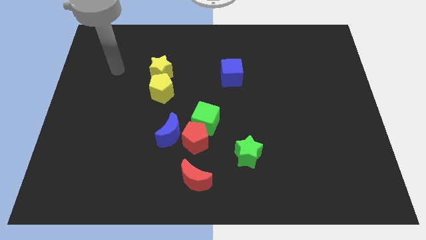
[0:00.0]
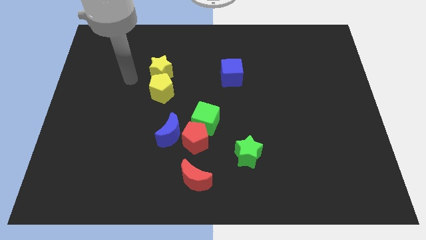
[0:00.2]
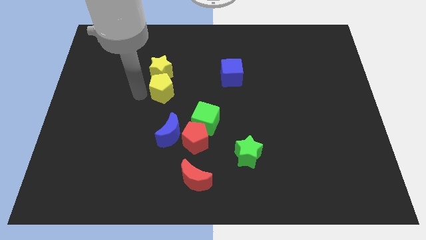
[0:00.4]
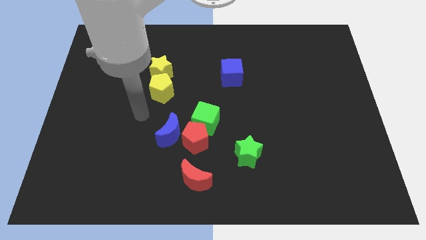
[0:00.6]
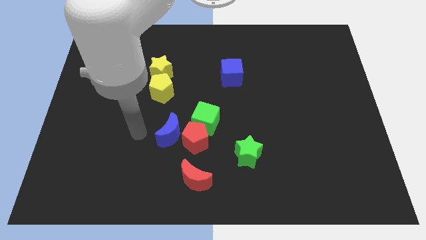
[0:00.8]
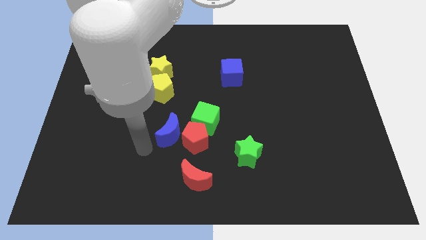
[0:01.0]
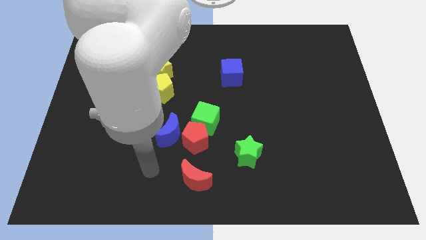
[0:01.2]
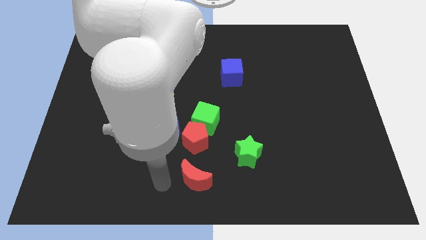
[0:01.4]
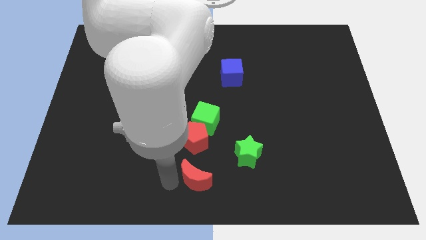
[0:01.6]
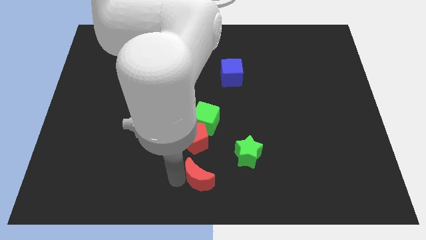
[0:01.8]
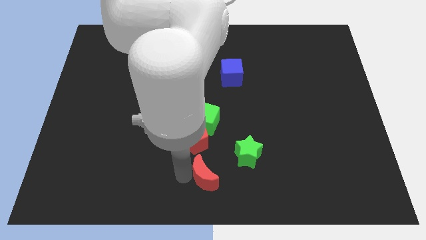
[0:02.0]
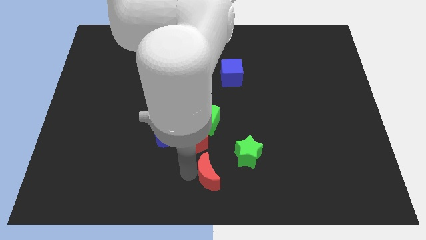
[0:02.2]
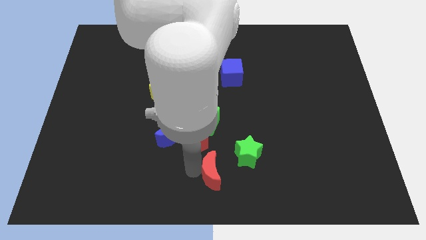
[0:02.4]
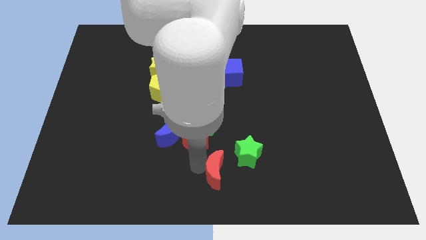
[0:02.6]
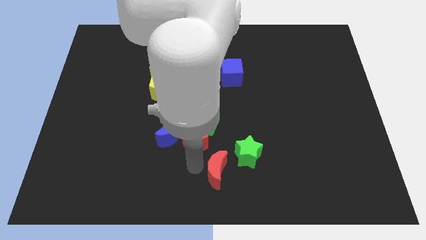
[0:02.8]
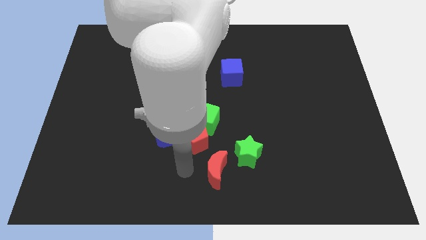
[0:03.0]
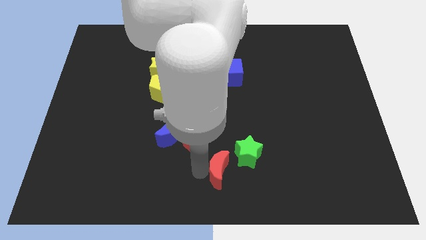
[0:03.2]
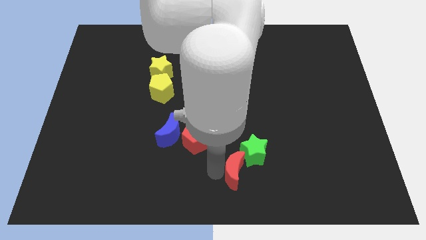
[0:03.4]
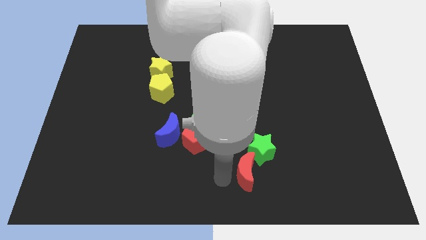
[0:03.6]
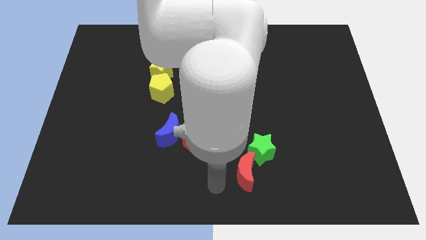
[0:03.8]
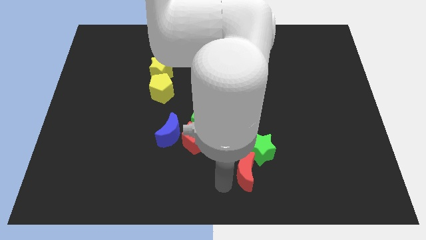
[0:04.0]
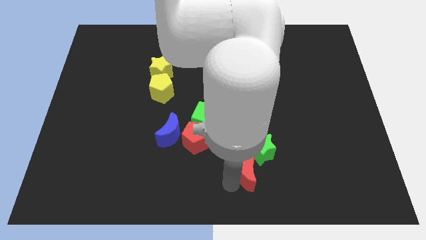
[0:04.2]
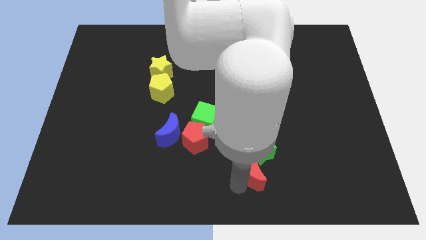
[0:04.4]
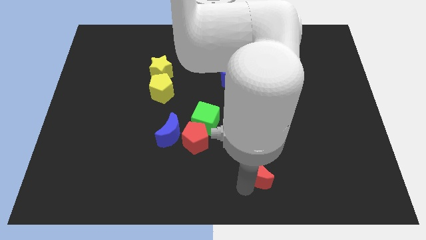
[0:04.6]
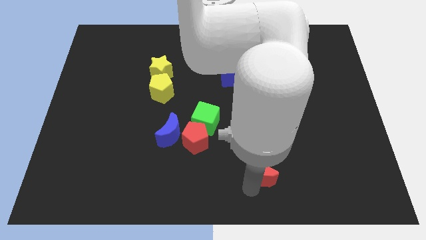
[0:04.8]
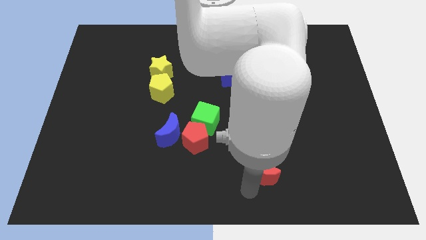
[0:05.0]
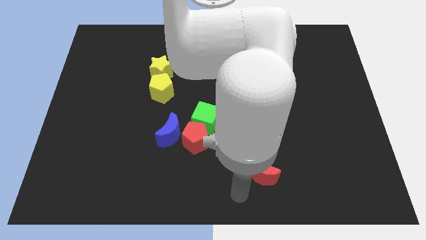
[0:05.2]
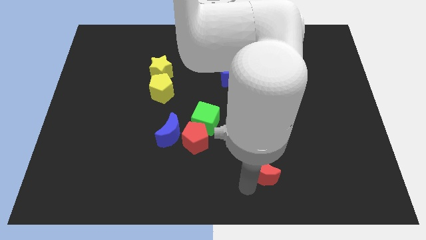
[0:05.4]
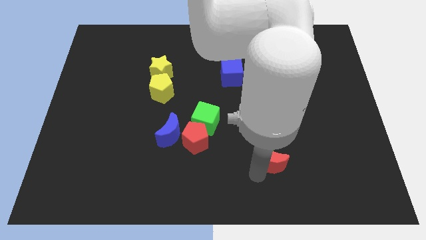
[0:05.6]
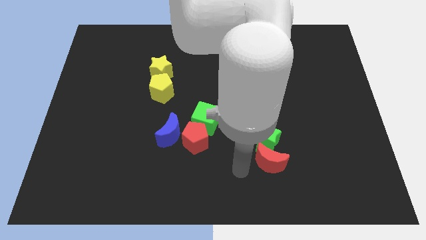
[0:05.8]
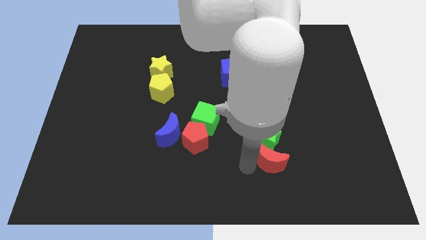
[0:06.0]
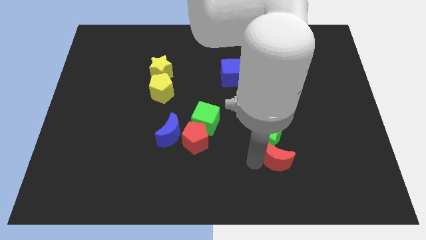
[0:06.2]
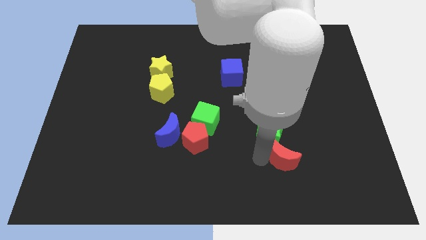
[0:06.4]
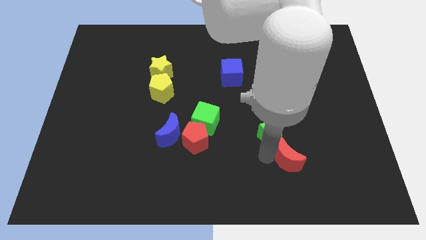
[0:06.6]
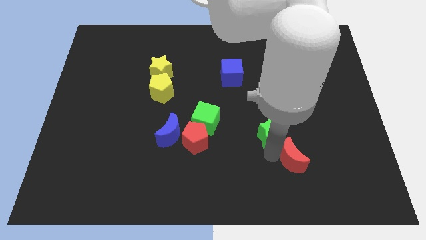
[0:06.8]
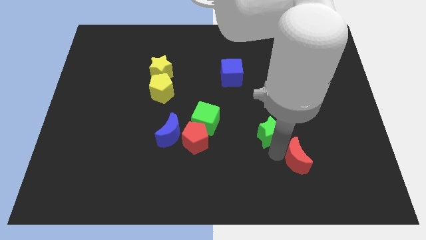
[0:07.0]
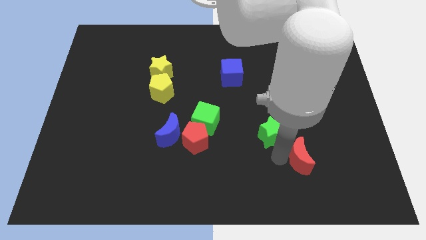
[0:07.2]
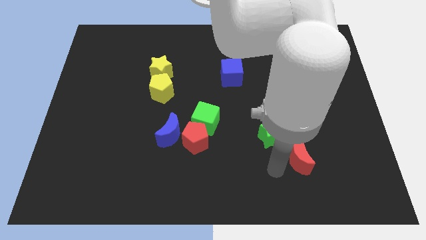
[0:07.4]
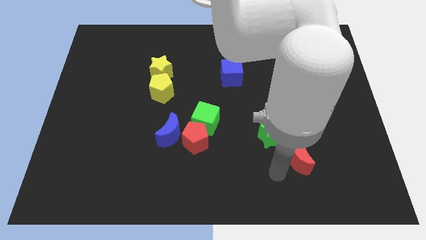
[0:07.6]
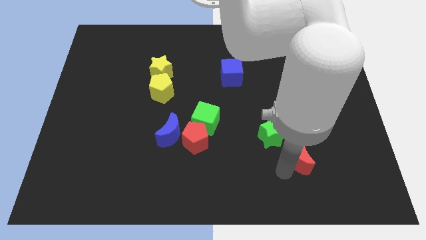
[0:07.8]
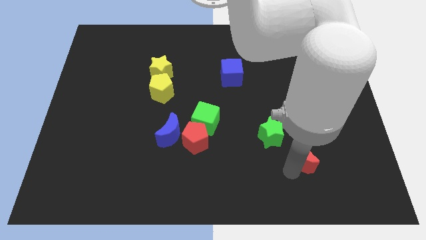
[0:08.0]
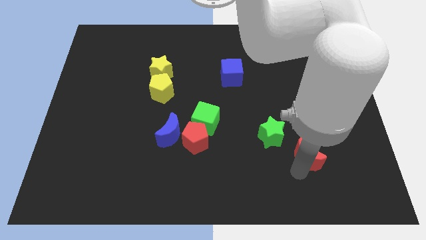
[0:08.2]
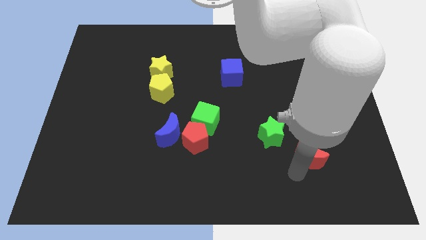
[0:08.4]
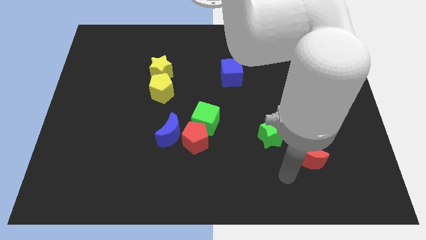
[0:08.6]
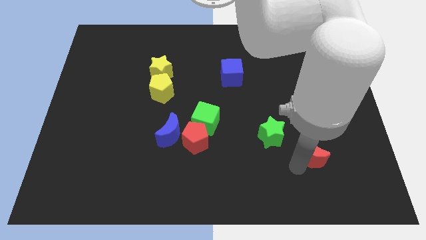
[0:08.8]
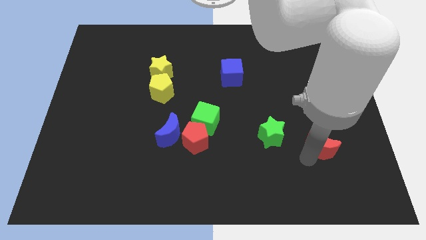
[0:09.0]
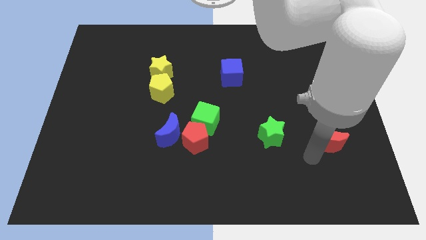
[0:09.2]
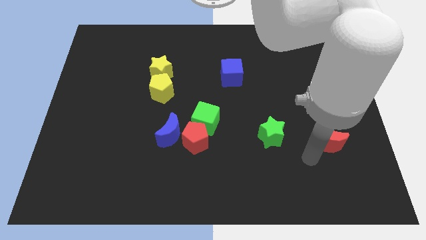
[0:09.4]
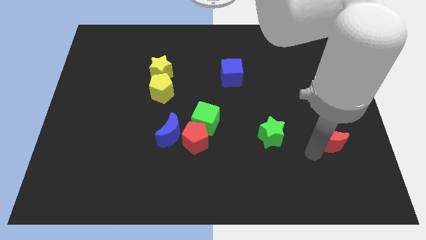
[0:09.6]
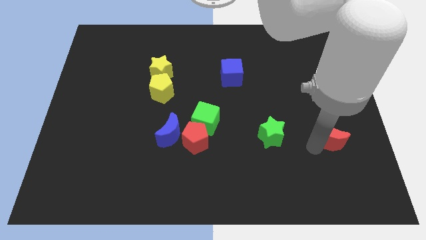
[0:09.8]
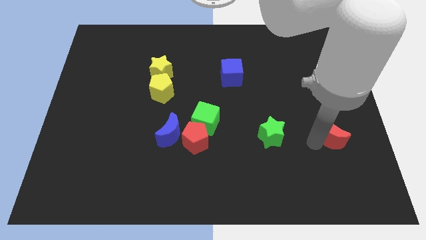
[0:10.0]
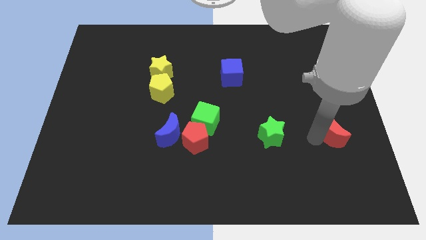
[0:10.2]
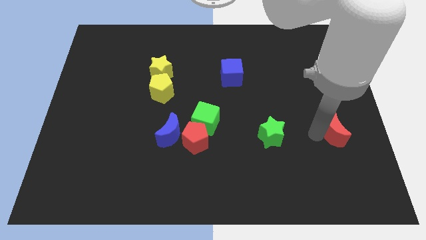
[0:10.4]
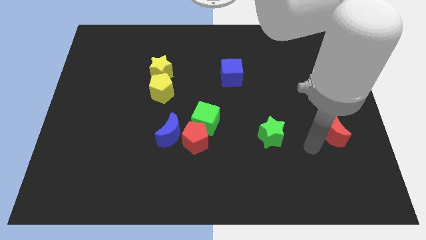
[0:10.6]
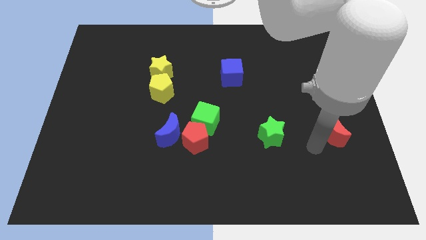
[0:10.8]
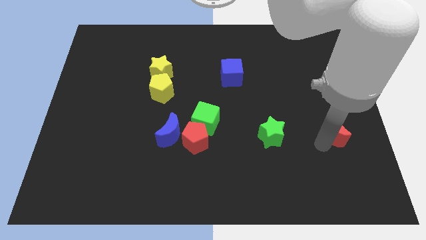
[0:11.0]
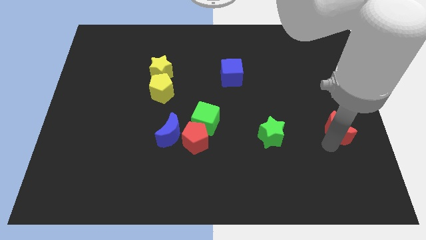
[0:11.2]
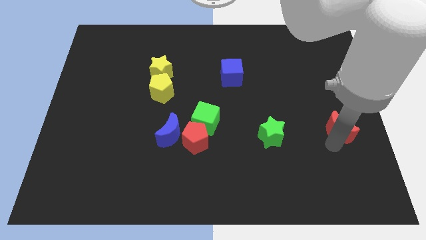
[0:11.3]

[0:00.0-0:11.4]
push the red moon to the right side of the board

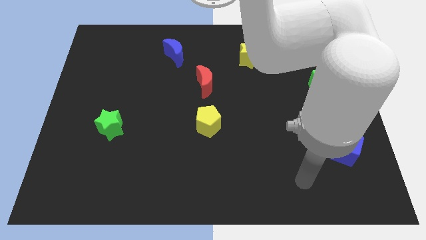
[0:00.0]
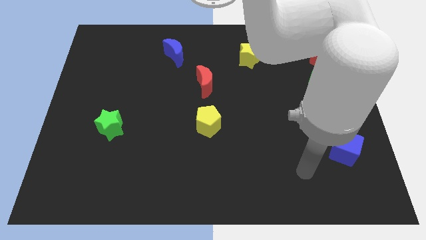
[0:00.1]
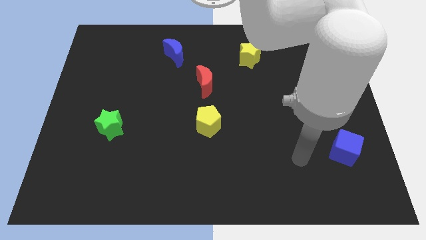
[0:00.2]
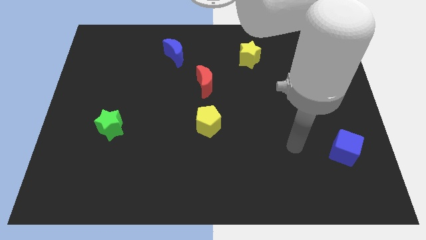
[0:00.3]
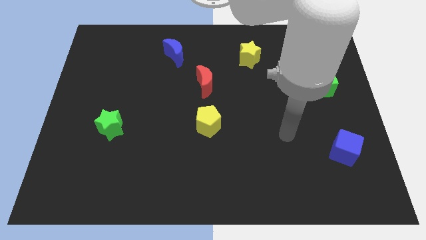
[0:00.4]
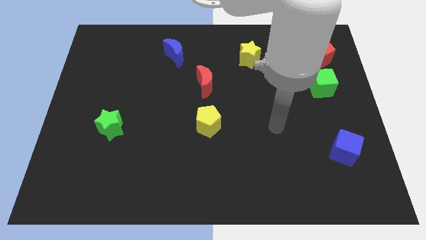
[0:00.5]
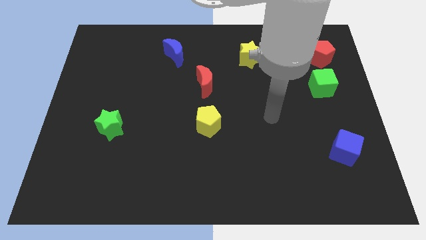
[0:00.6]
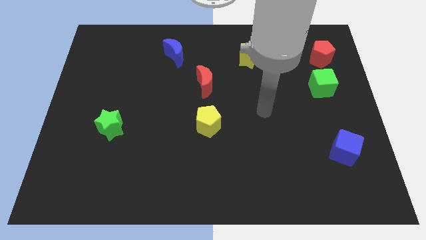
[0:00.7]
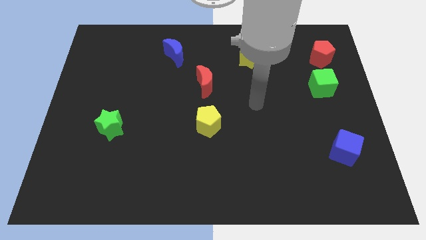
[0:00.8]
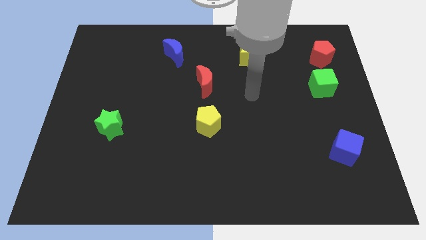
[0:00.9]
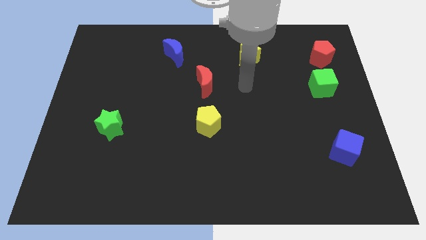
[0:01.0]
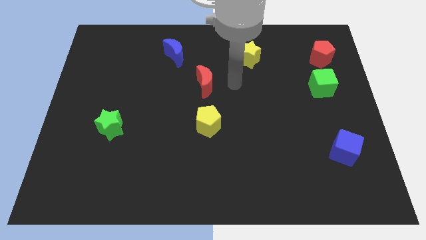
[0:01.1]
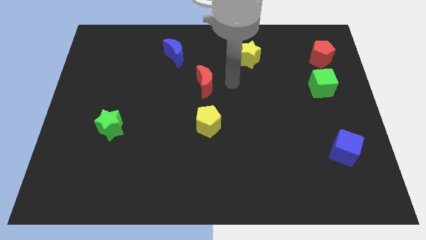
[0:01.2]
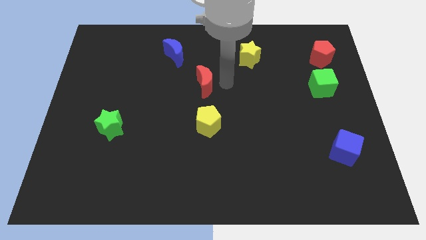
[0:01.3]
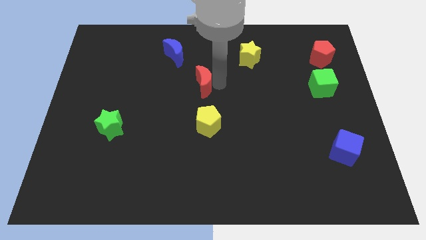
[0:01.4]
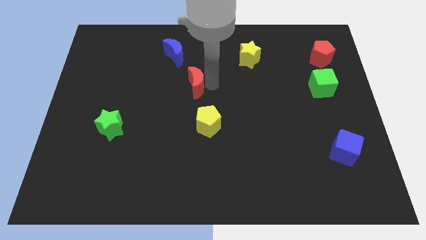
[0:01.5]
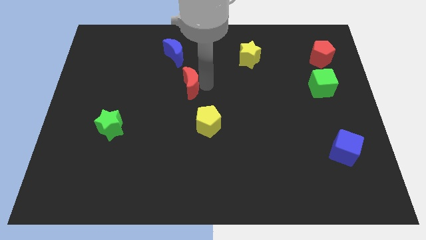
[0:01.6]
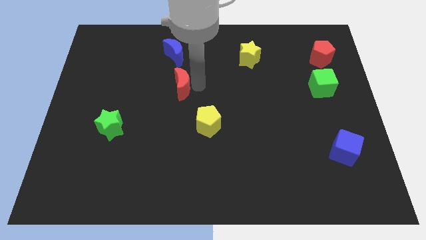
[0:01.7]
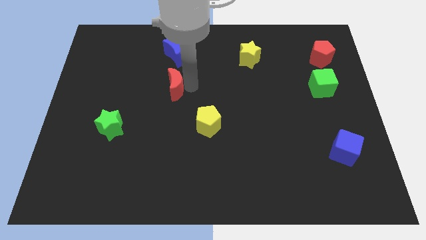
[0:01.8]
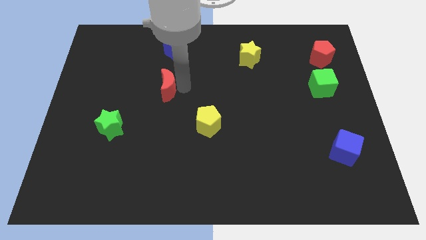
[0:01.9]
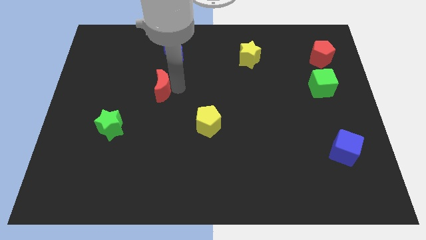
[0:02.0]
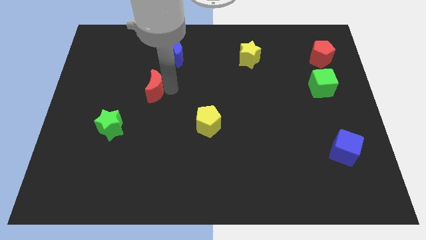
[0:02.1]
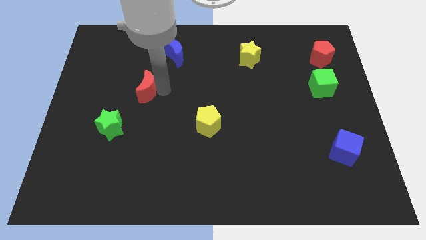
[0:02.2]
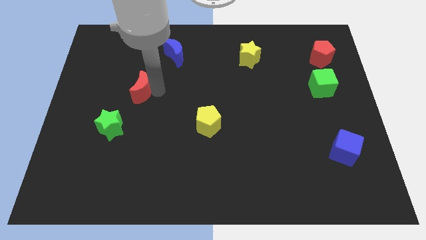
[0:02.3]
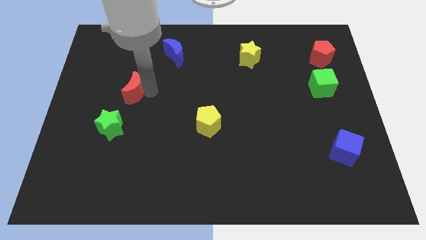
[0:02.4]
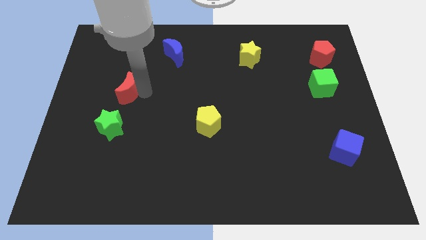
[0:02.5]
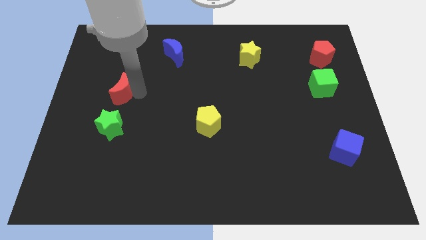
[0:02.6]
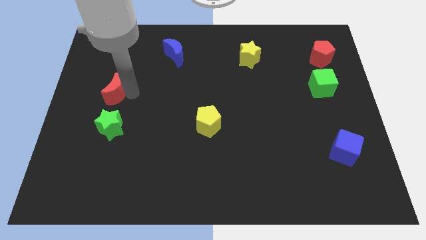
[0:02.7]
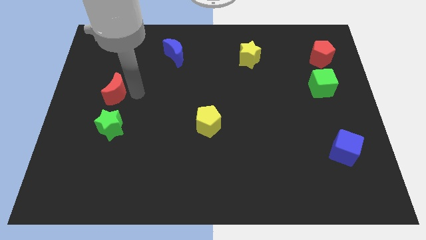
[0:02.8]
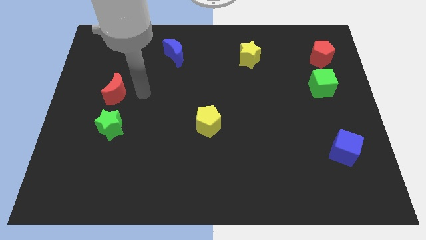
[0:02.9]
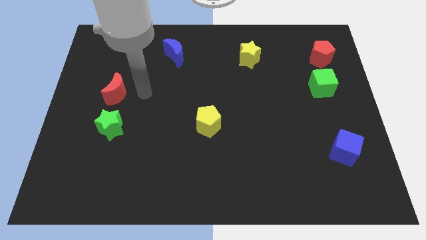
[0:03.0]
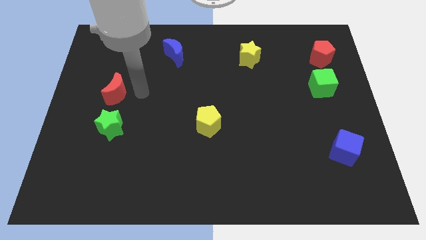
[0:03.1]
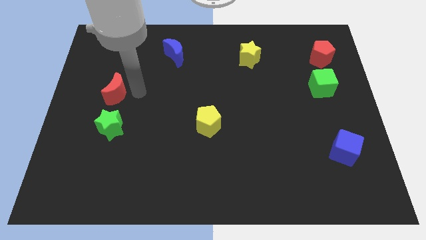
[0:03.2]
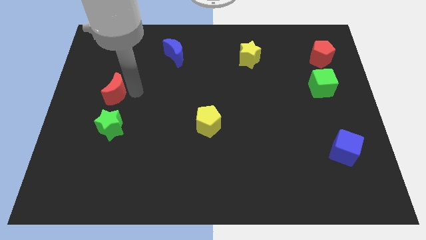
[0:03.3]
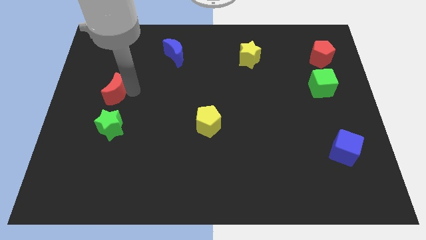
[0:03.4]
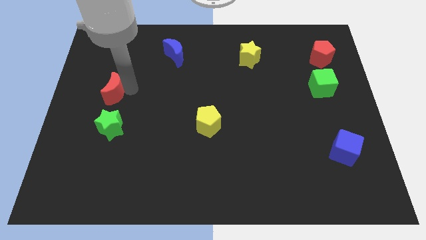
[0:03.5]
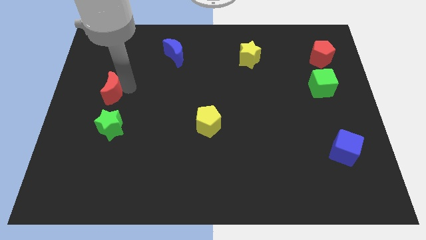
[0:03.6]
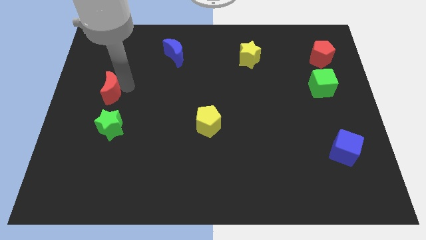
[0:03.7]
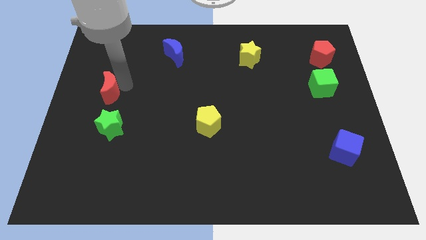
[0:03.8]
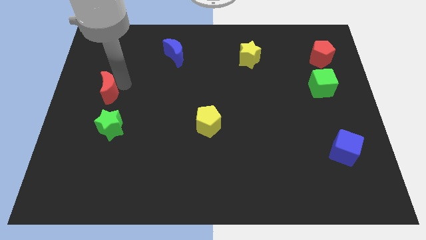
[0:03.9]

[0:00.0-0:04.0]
move the red moon to the left side of the board
